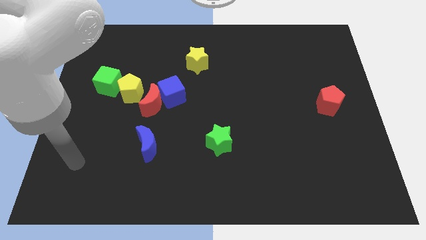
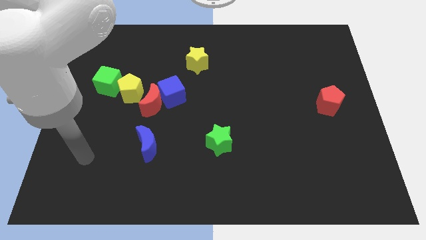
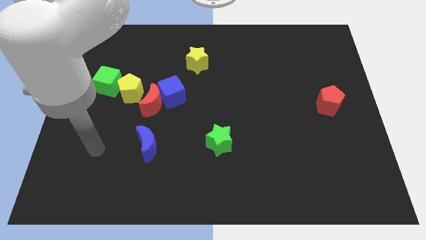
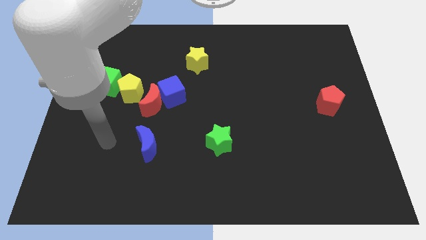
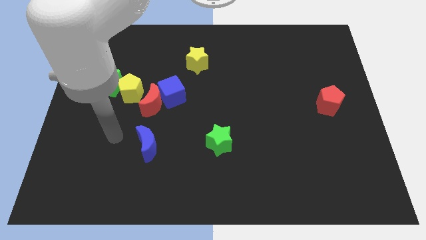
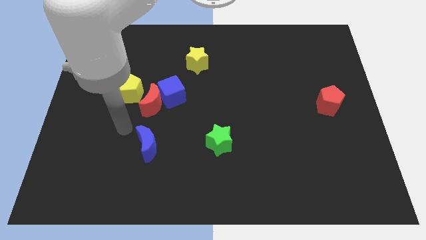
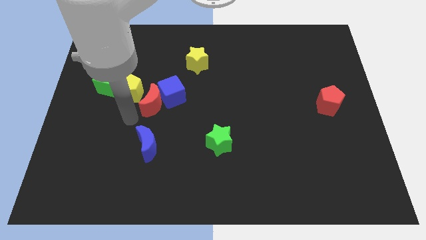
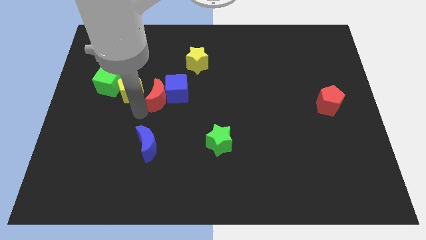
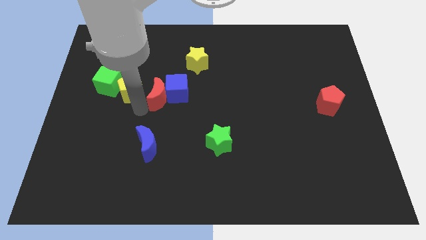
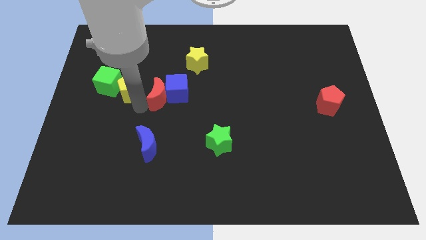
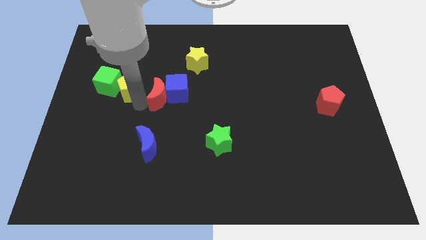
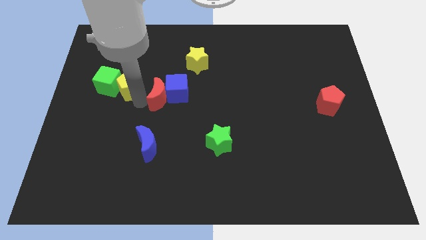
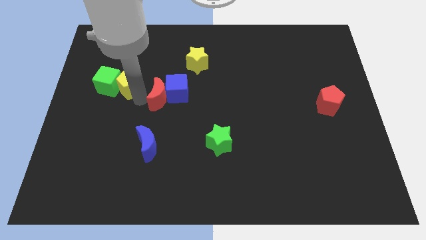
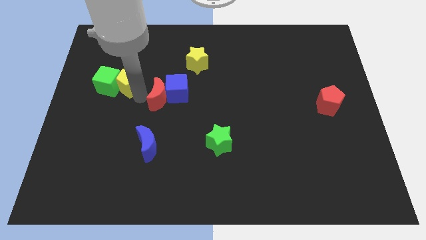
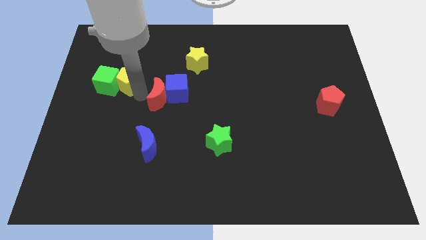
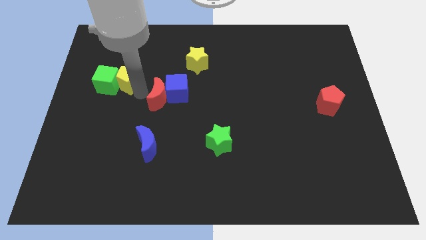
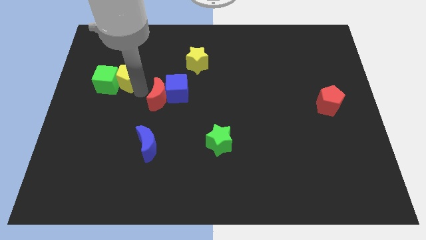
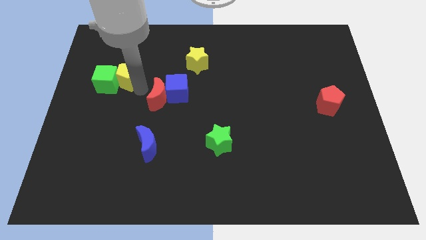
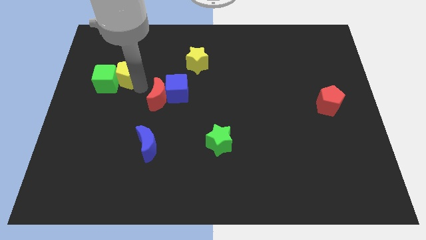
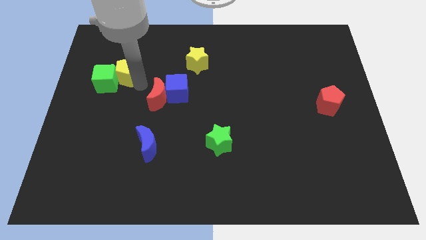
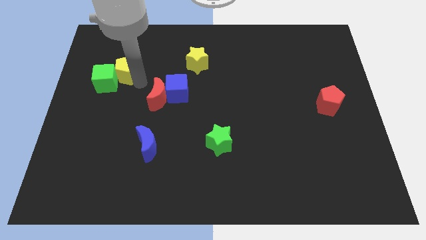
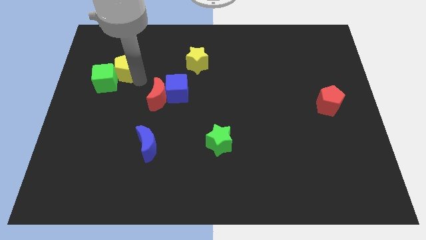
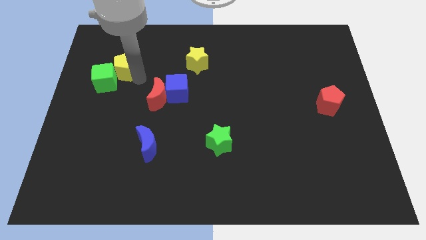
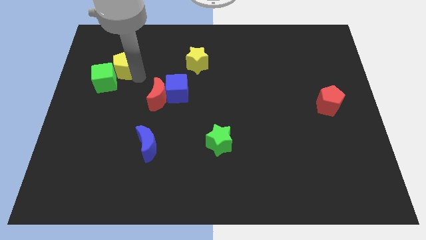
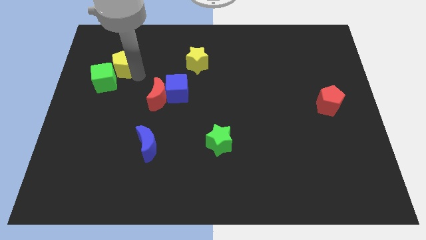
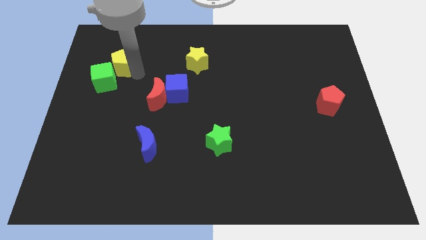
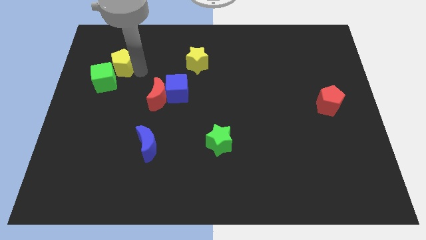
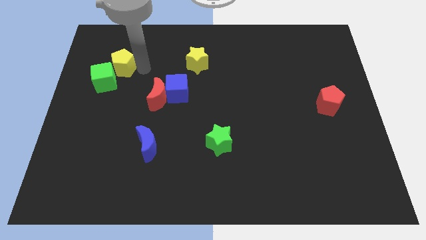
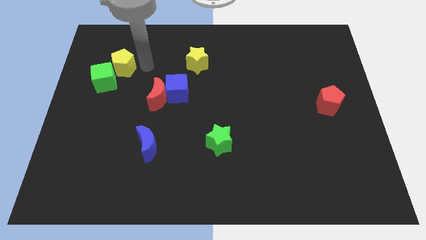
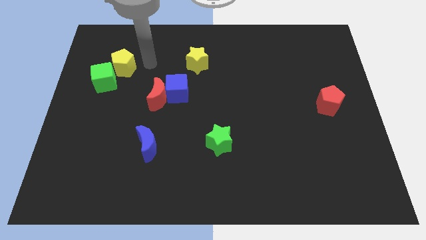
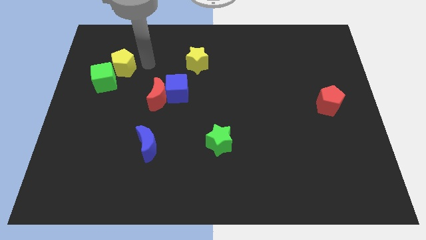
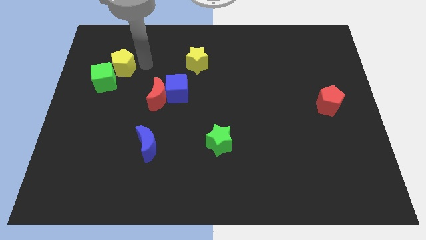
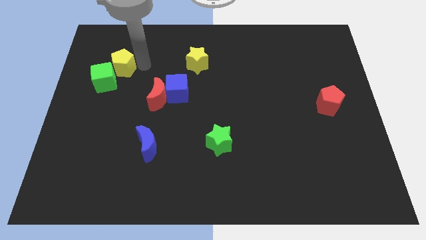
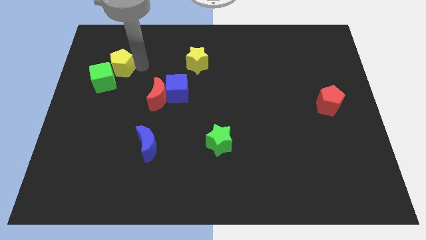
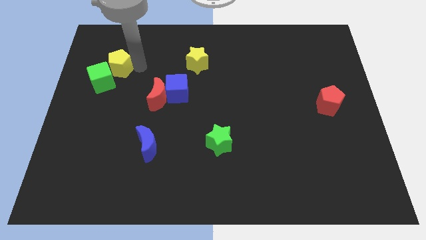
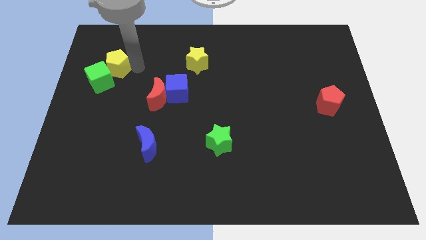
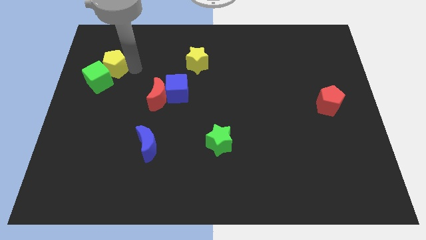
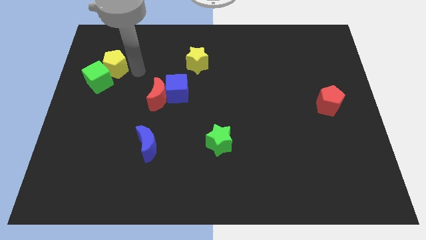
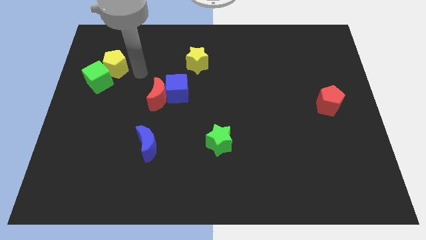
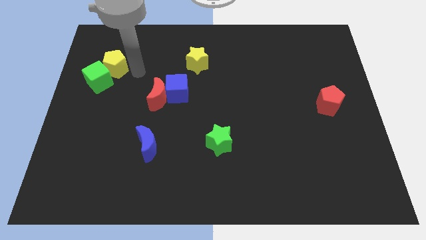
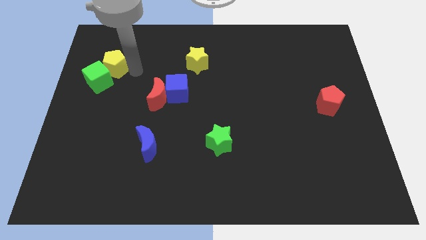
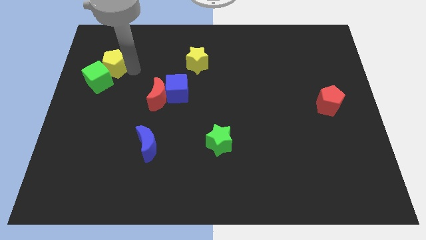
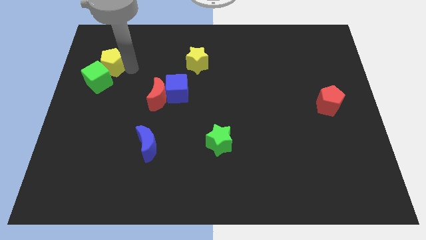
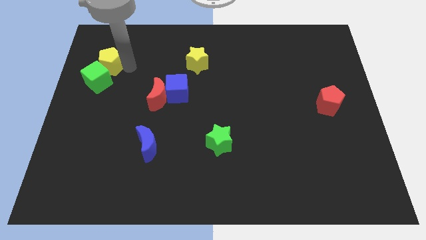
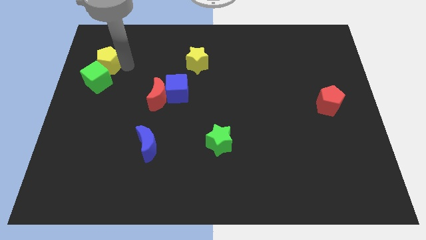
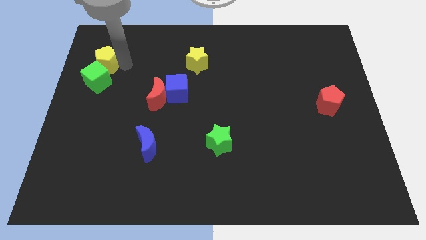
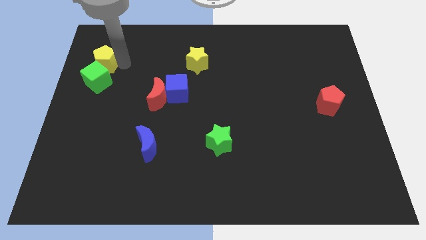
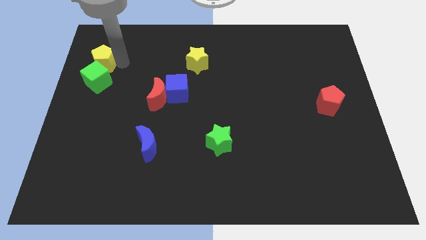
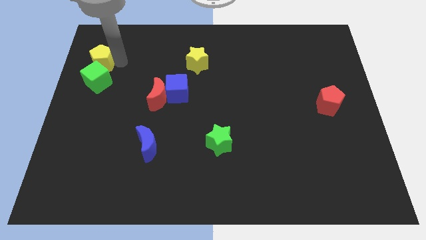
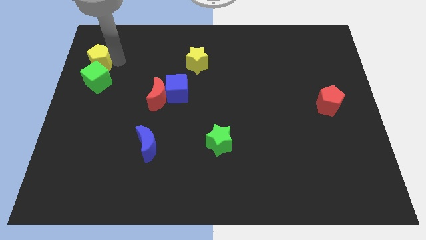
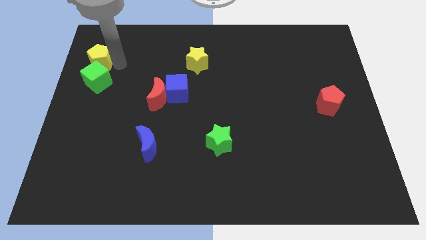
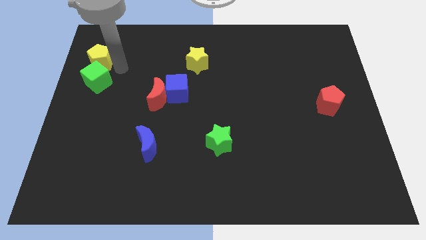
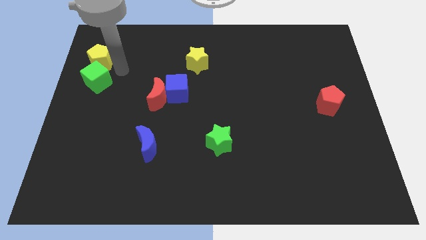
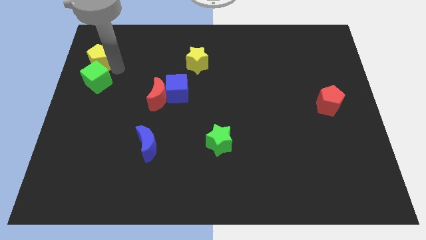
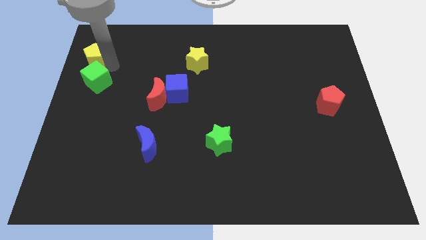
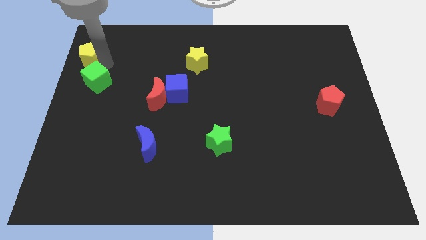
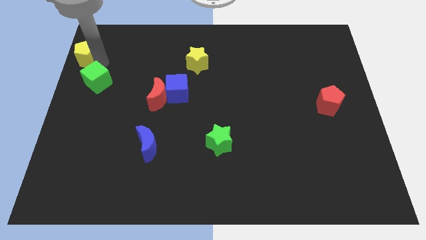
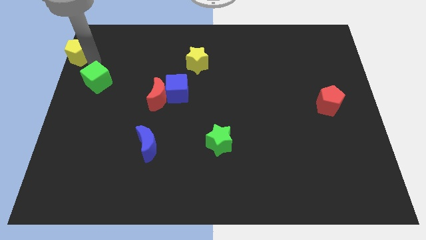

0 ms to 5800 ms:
move the yellow pentagon to the top left corner
